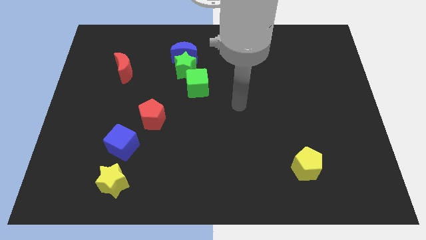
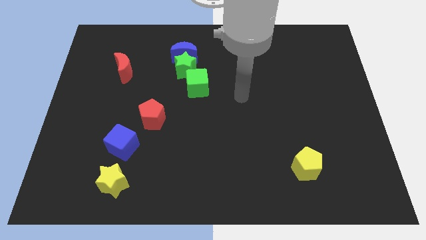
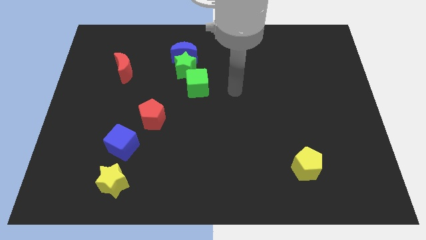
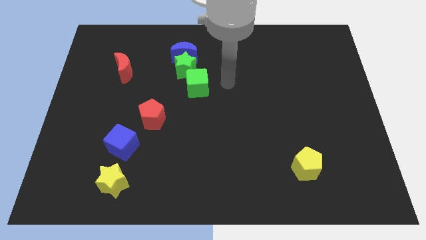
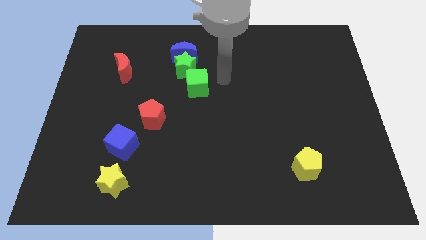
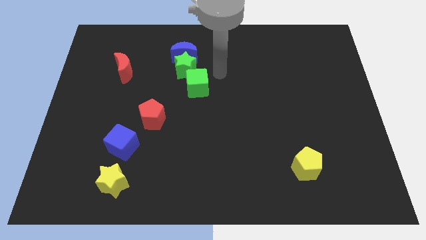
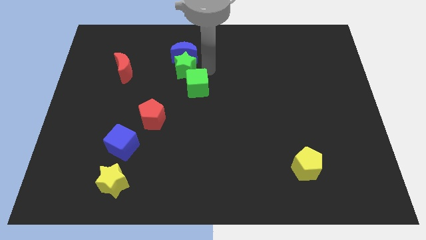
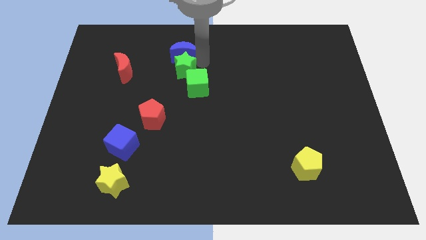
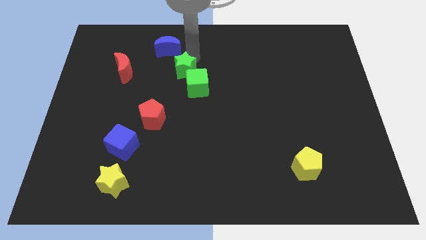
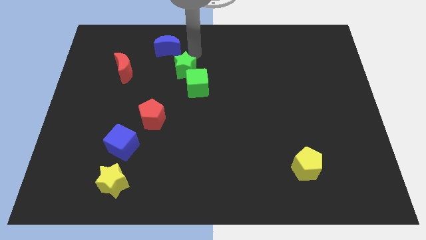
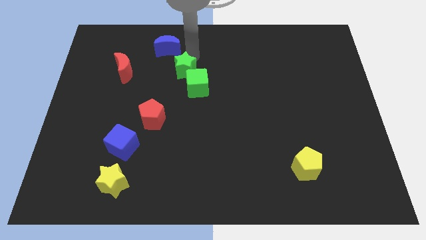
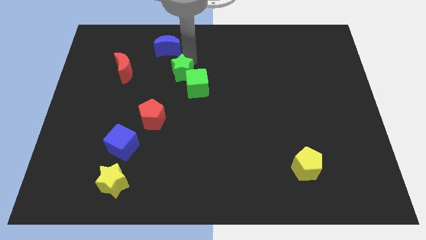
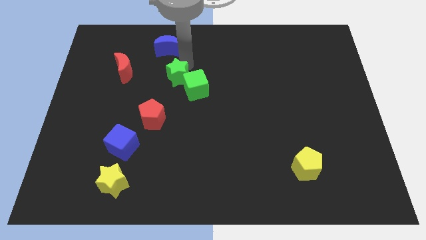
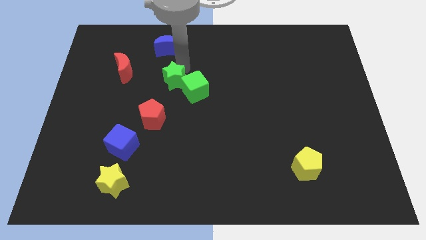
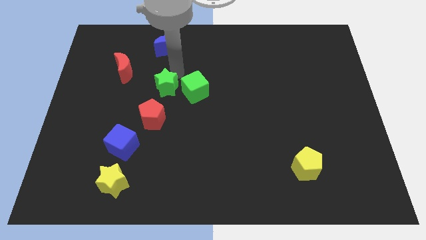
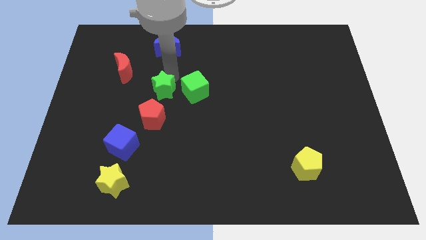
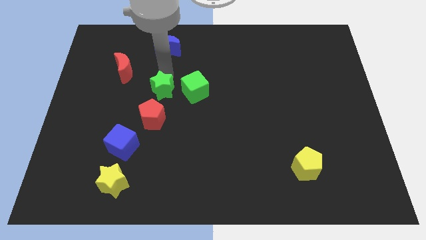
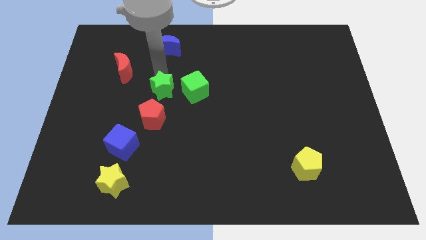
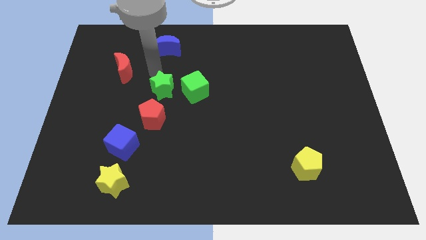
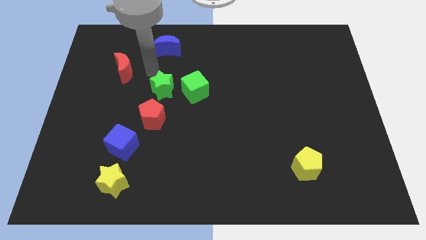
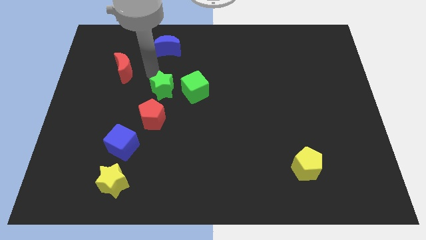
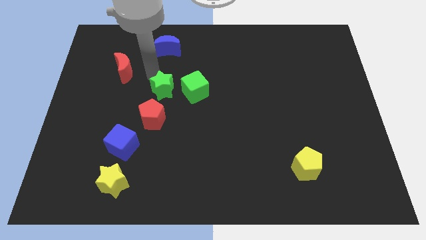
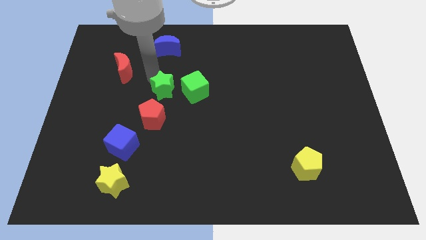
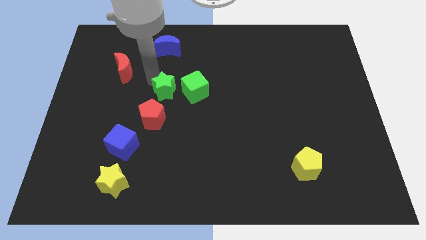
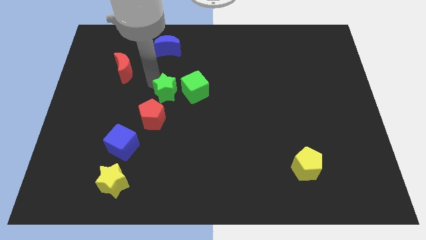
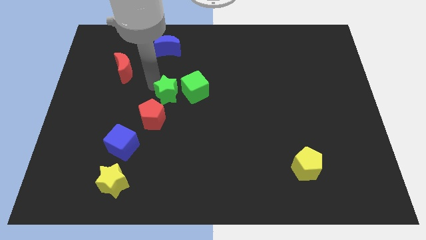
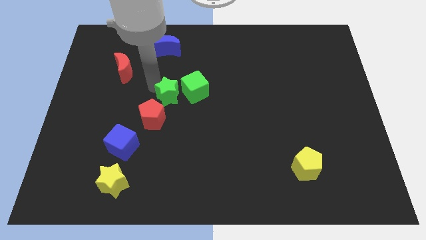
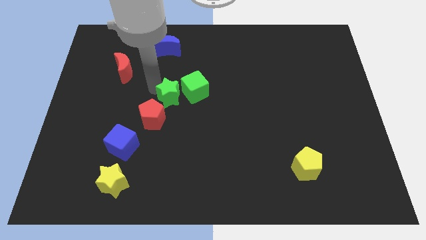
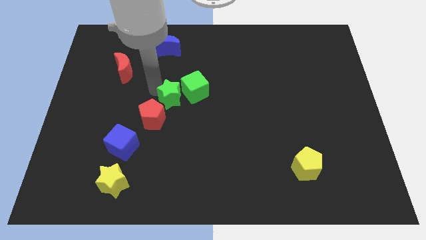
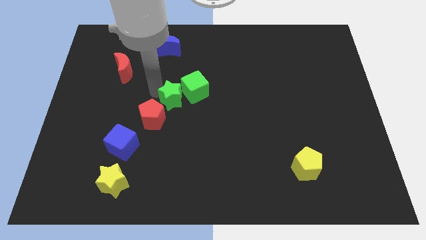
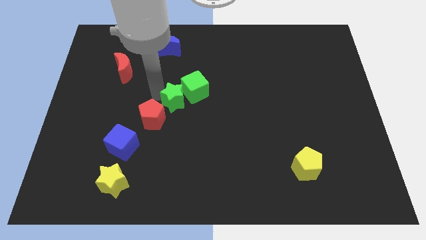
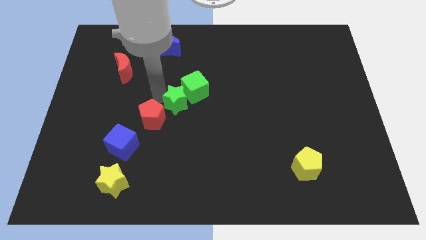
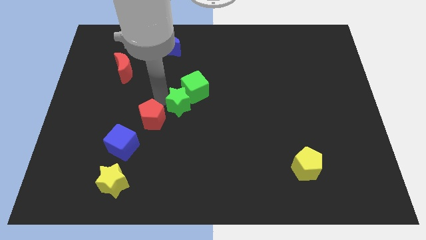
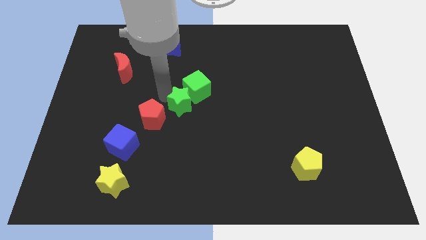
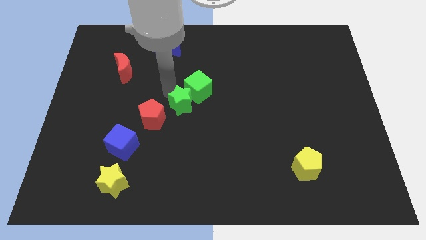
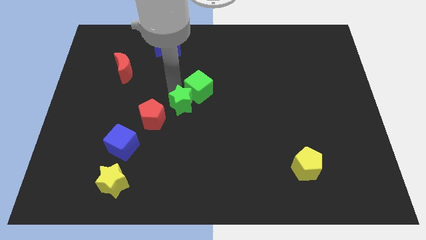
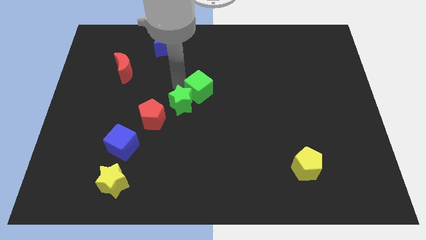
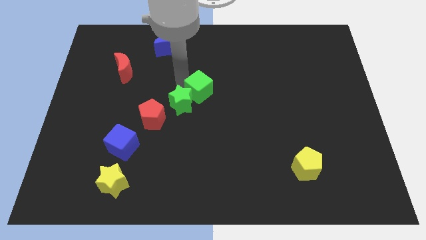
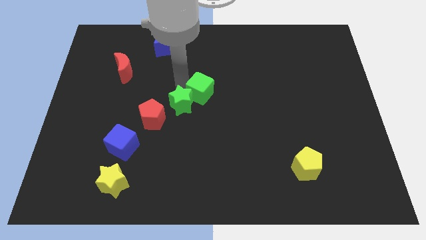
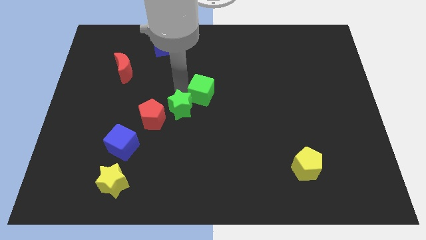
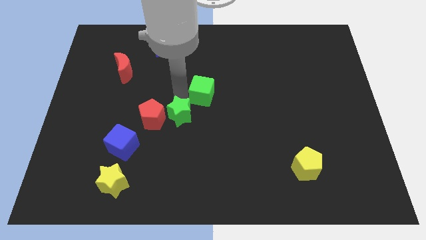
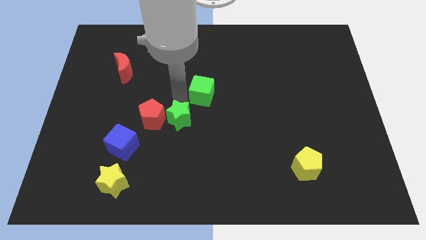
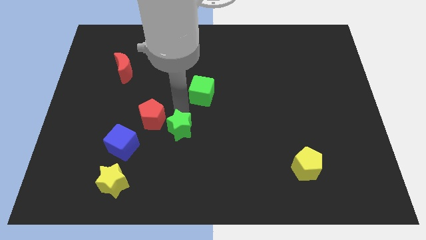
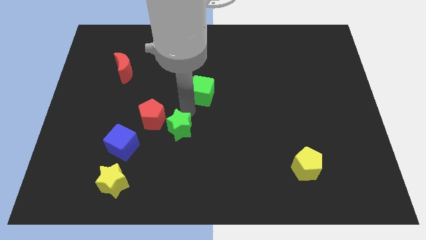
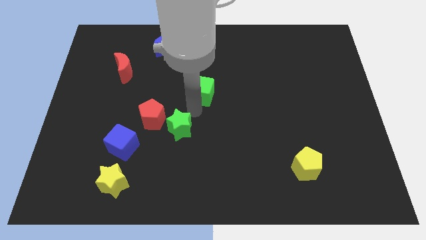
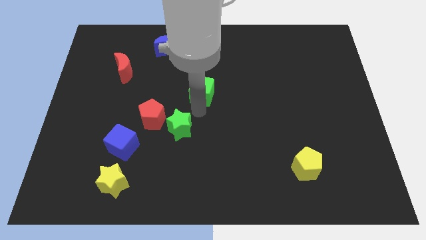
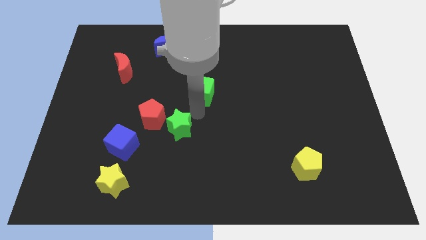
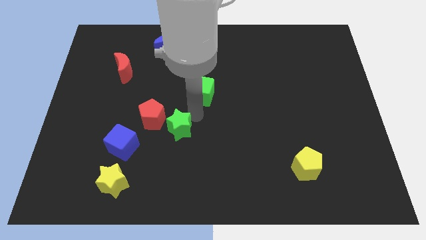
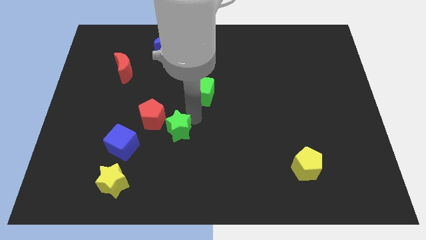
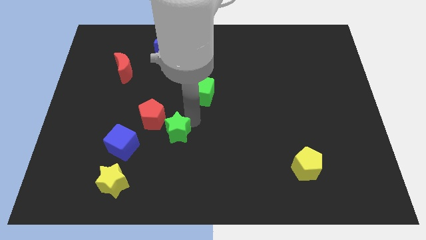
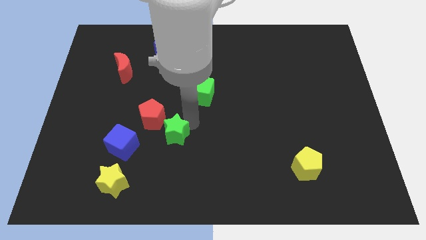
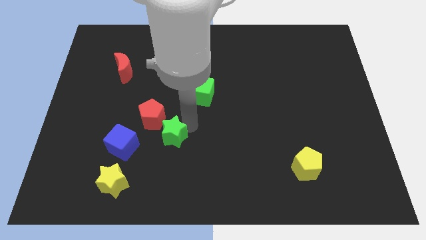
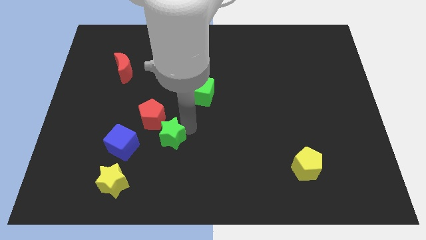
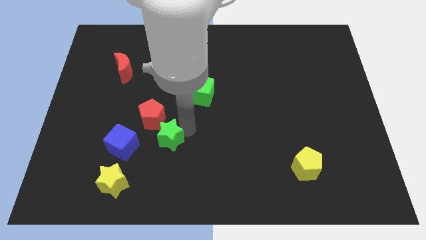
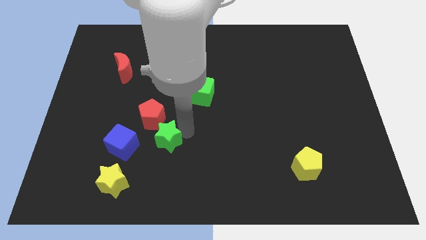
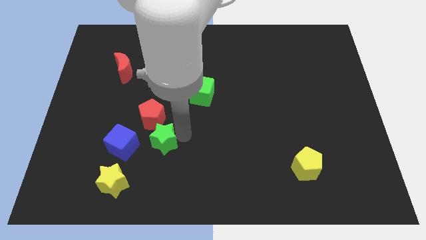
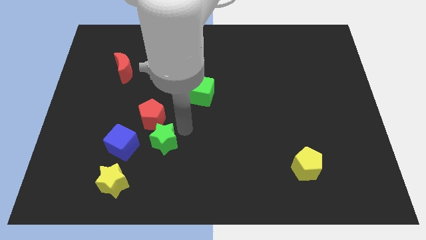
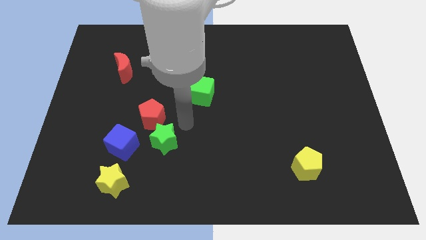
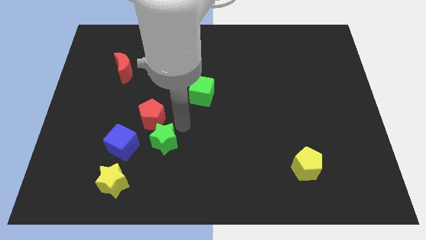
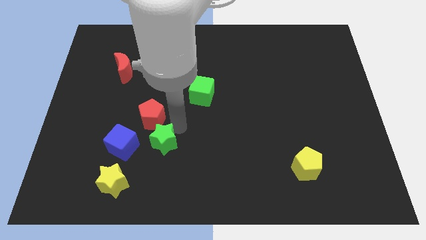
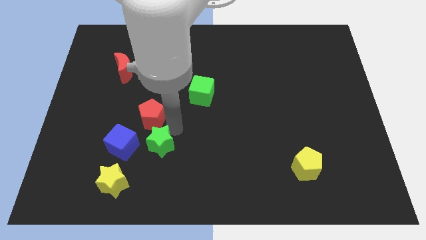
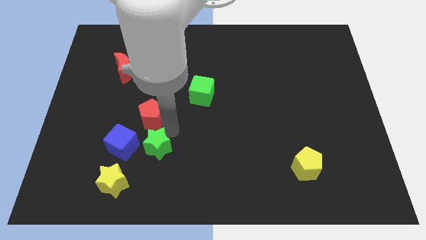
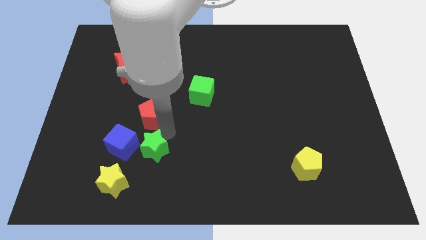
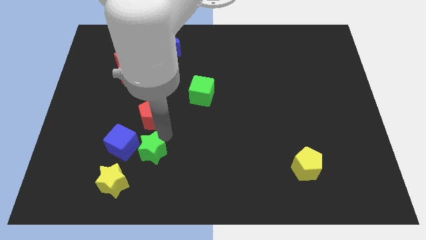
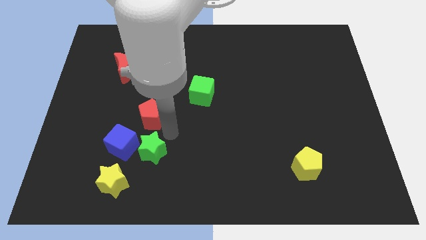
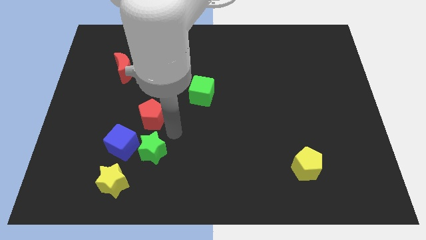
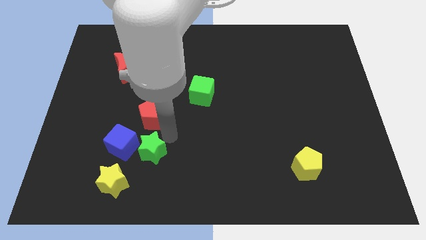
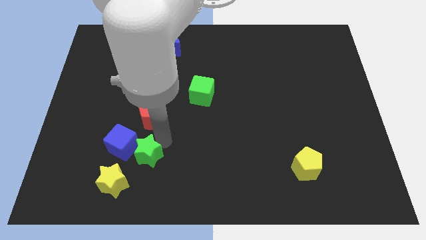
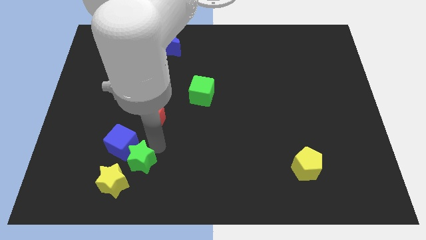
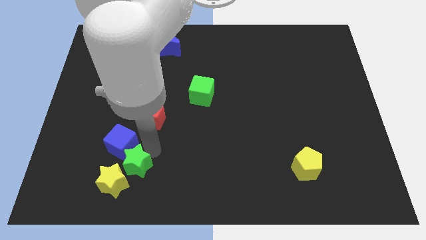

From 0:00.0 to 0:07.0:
slide the green star towards the yellow star
